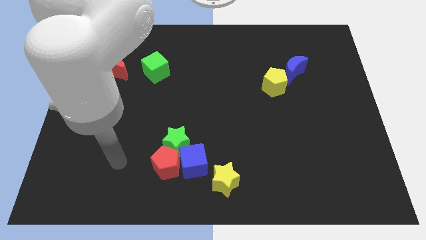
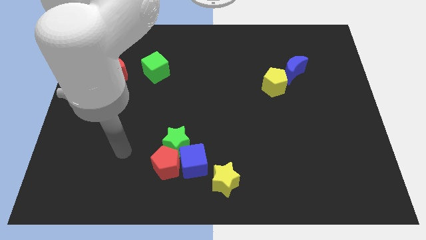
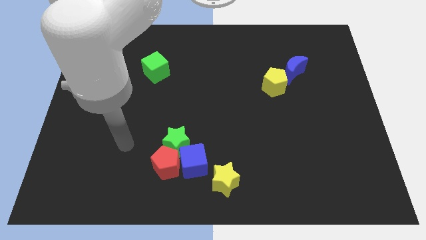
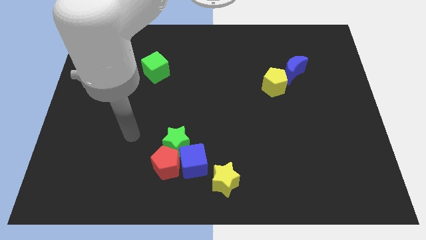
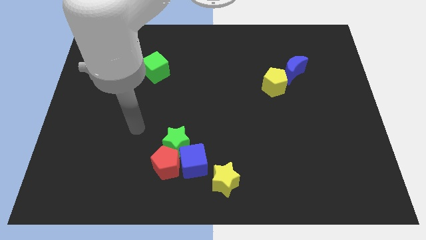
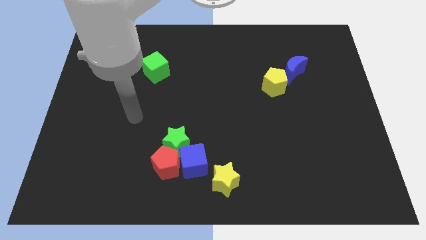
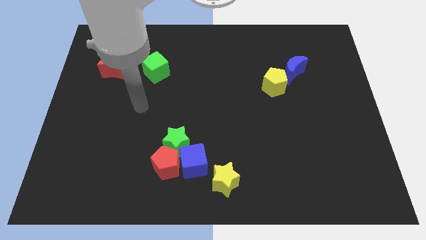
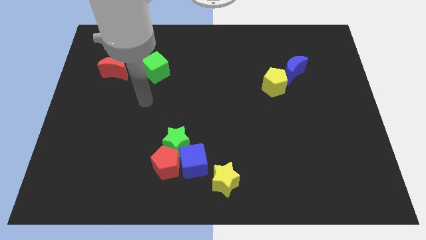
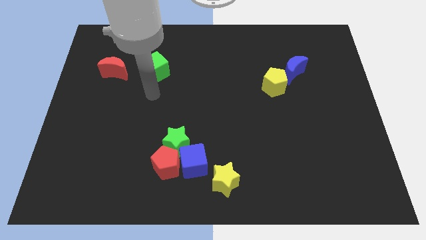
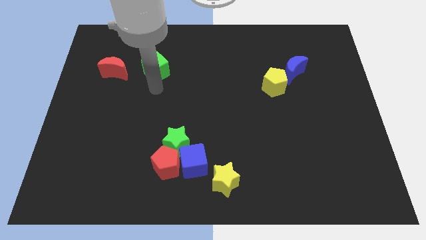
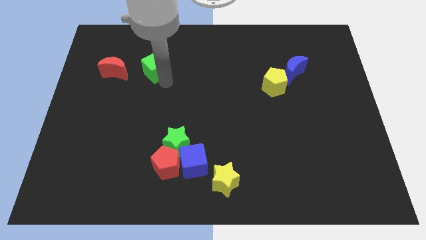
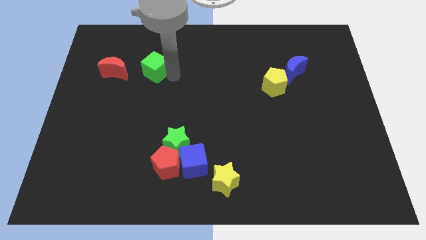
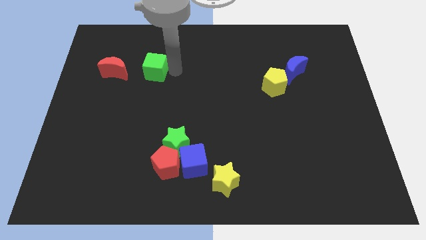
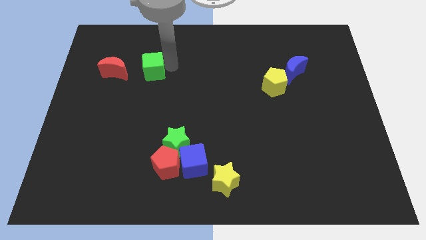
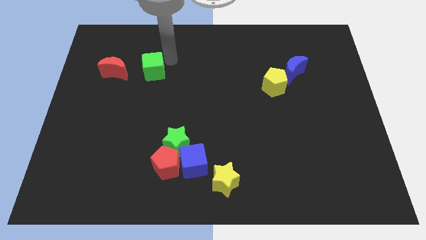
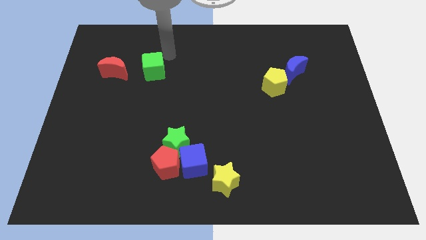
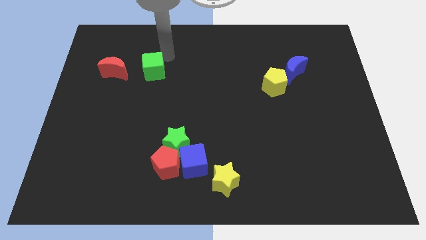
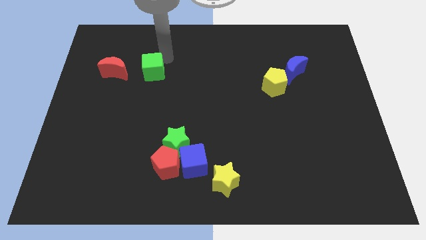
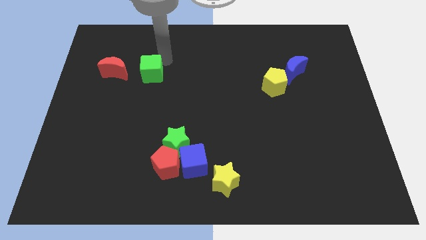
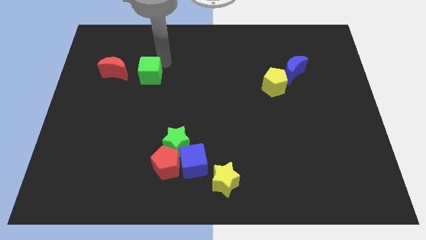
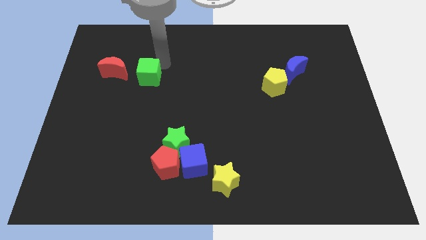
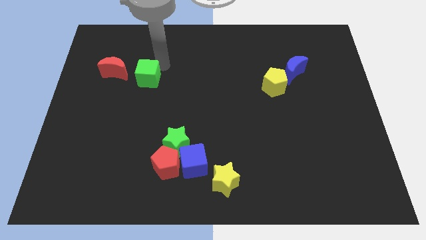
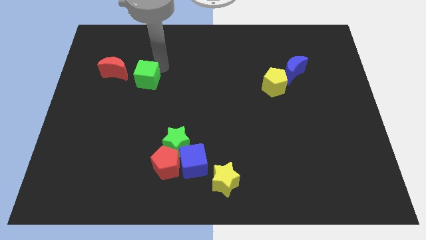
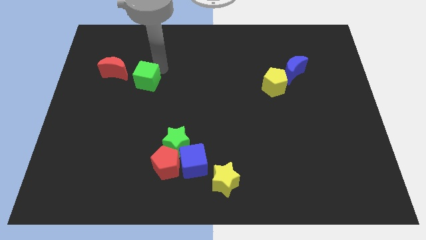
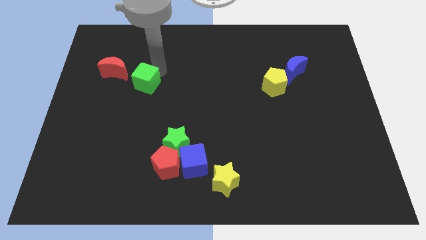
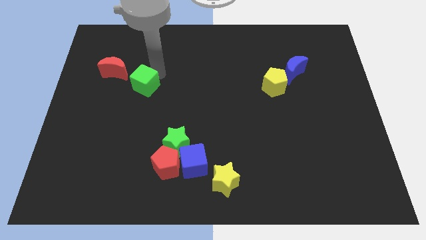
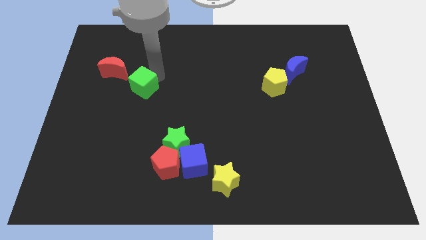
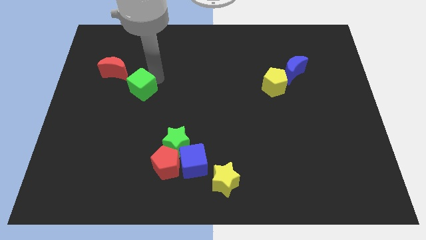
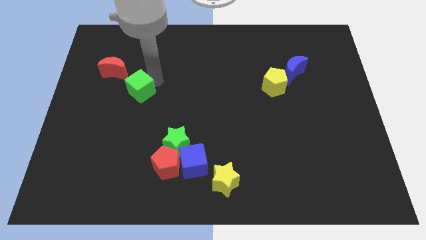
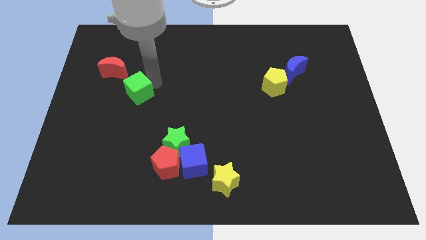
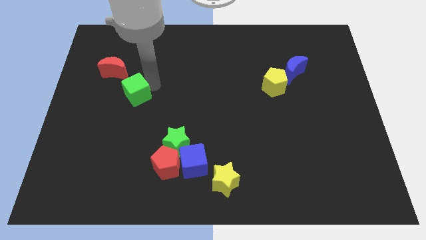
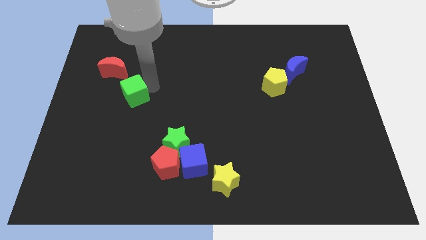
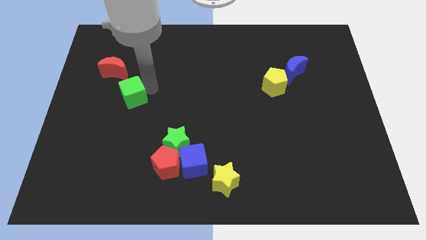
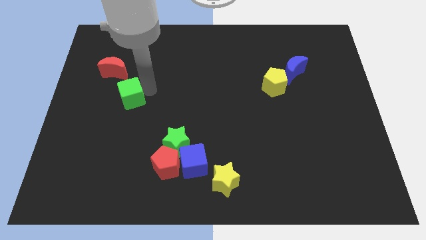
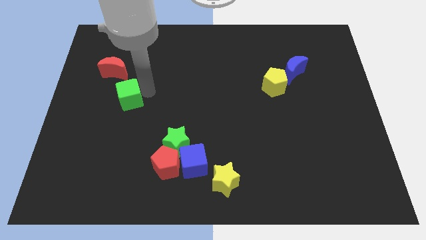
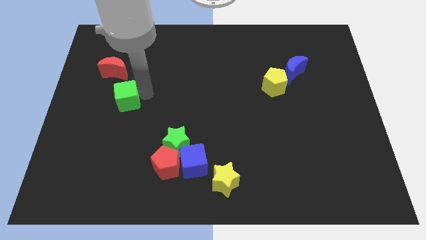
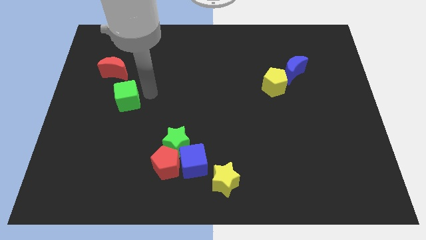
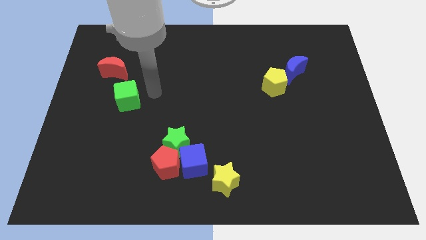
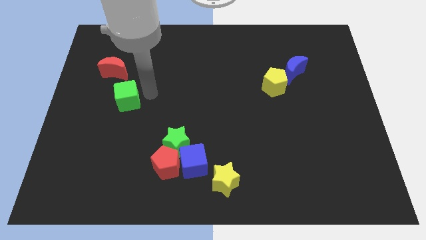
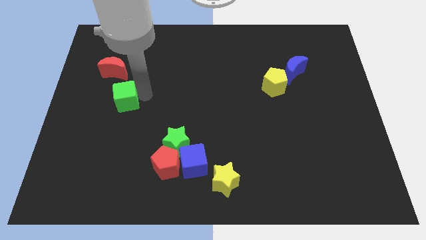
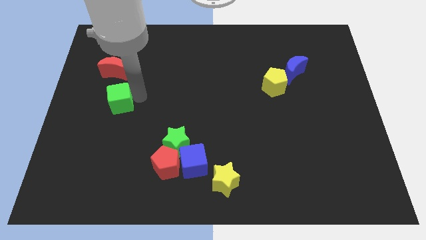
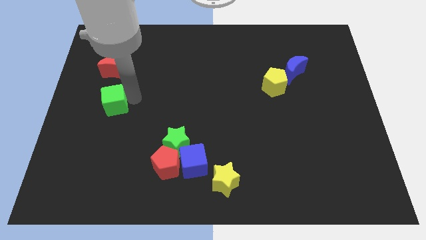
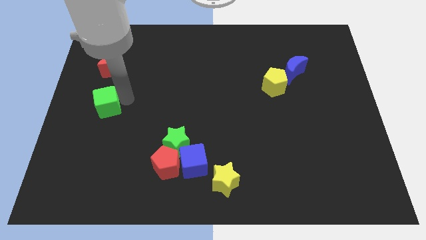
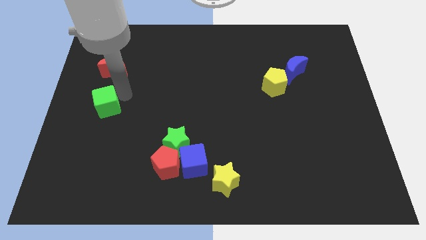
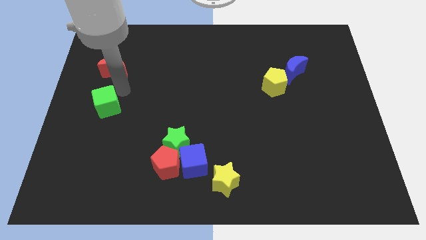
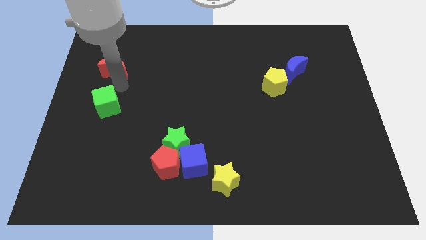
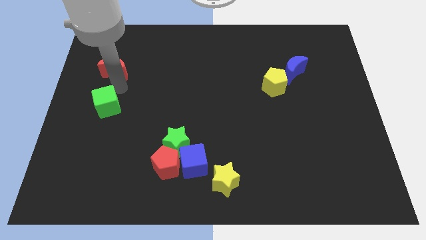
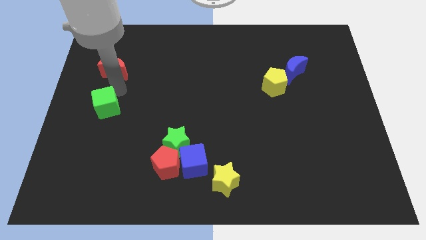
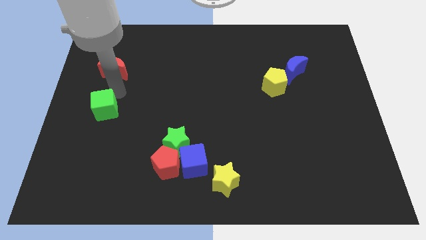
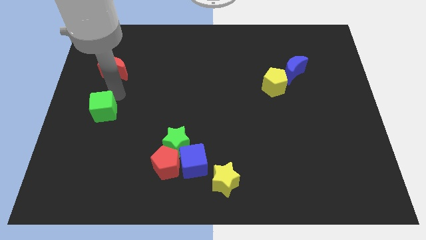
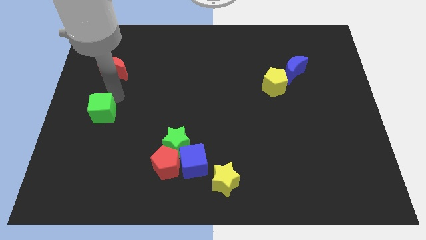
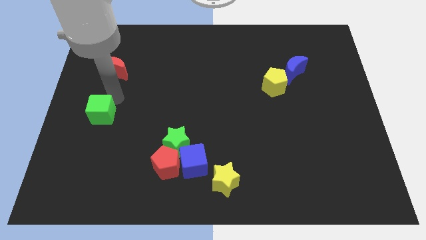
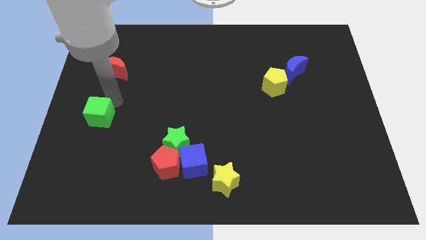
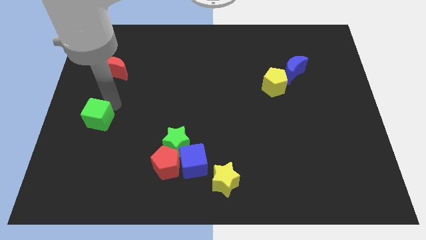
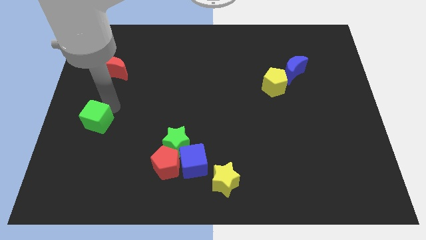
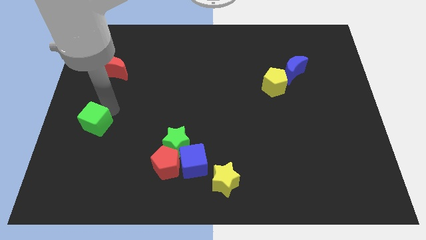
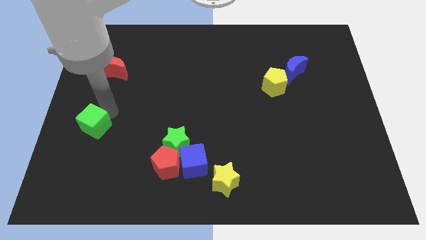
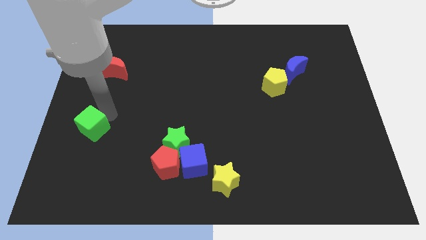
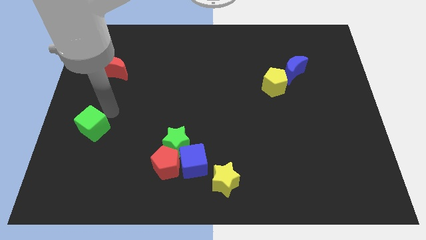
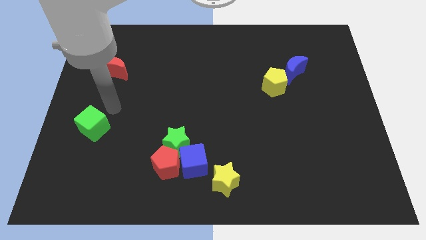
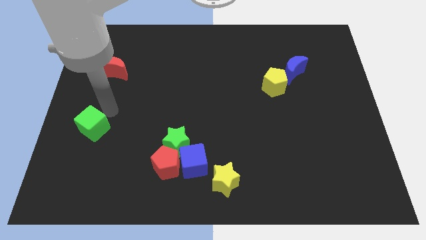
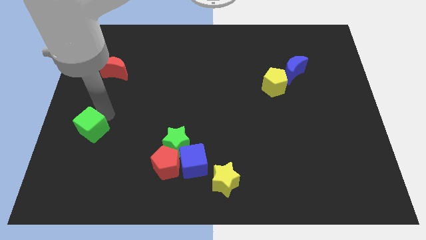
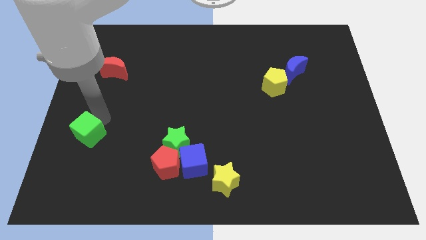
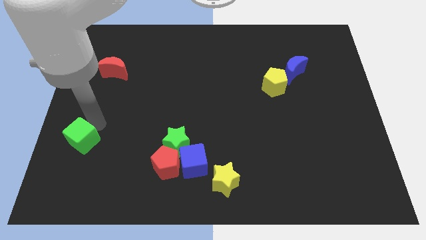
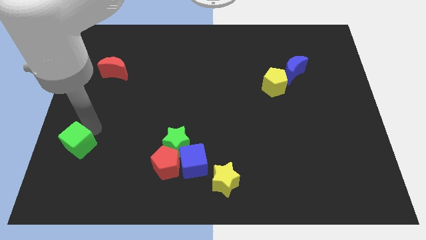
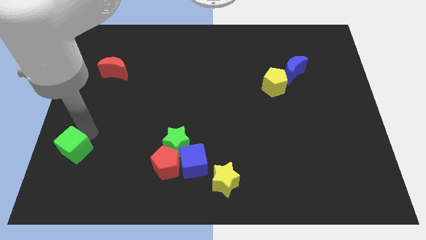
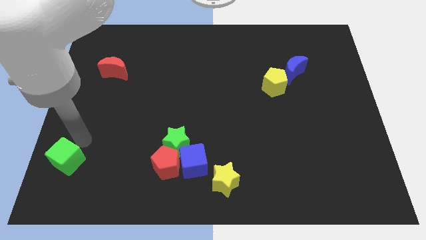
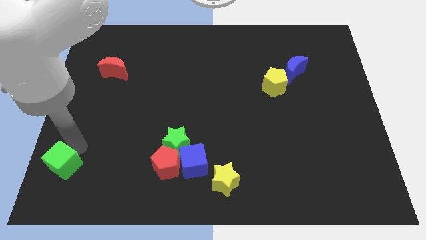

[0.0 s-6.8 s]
move the green cube to the bottom left

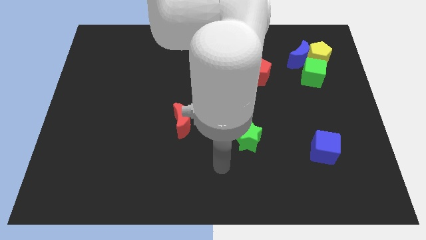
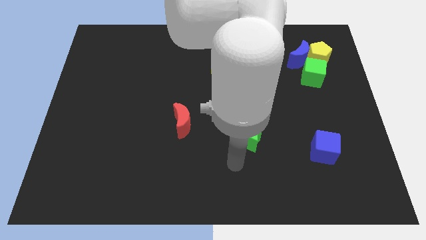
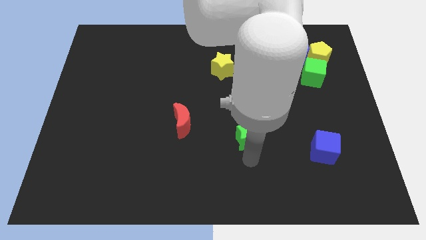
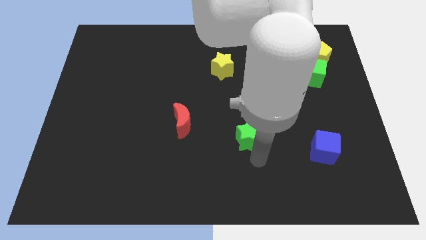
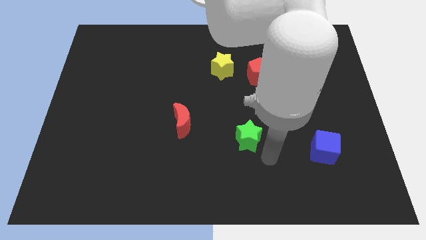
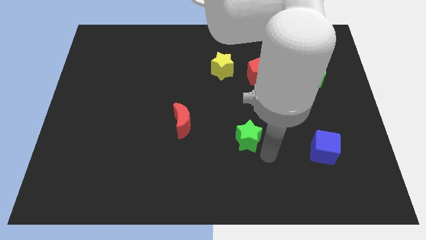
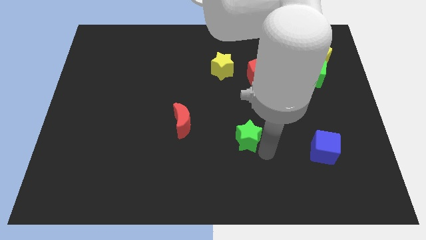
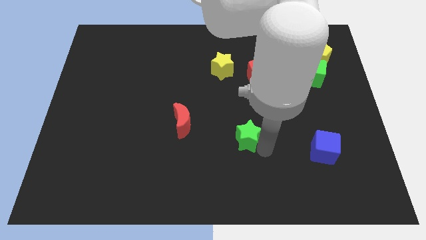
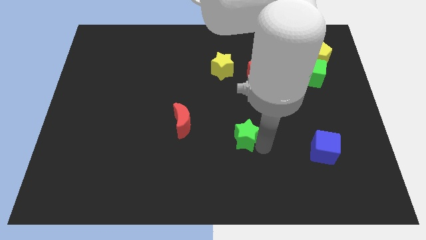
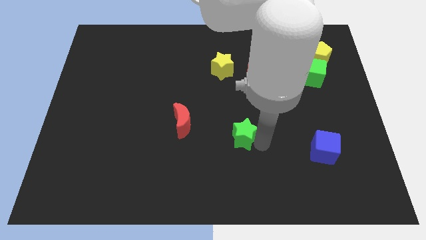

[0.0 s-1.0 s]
slide the green star to the middle of the board
